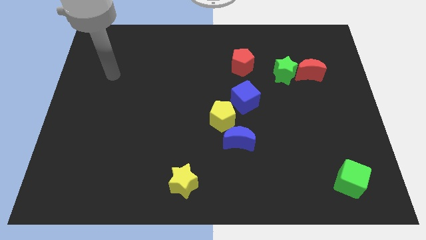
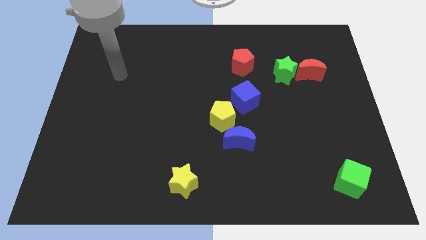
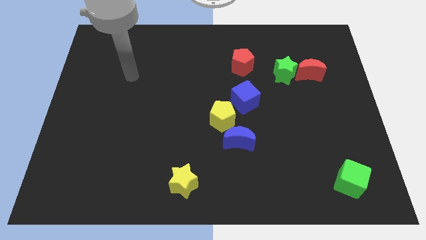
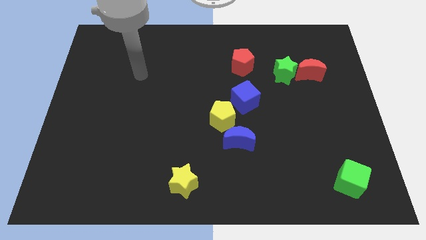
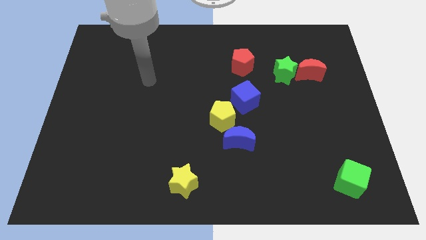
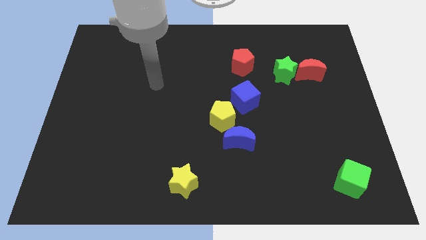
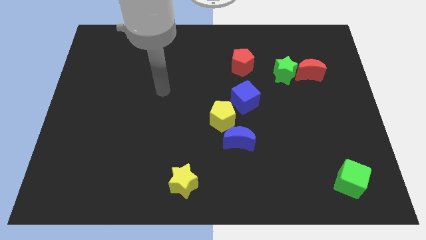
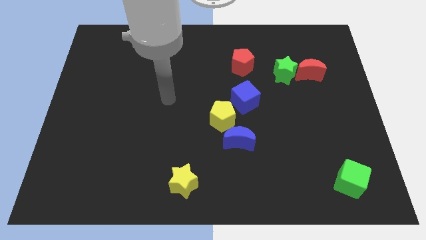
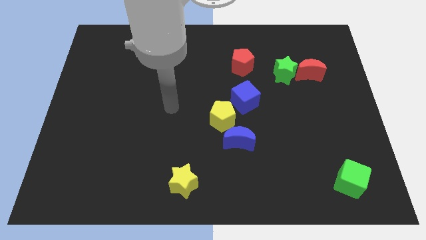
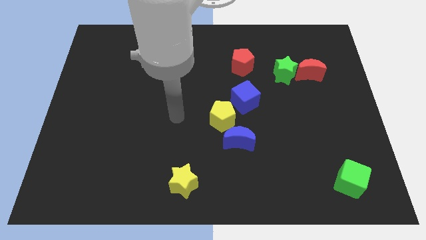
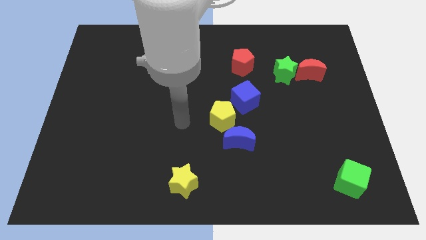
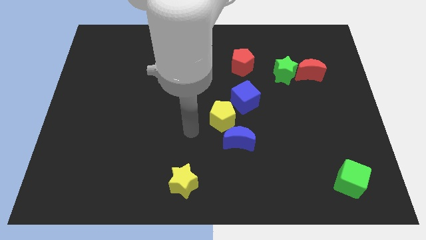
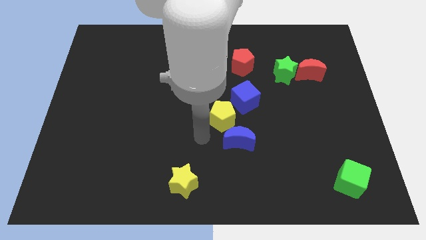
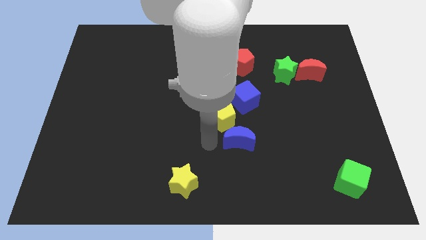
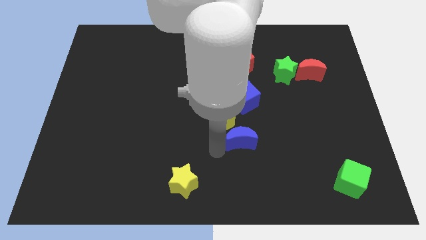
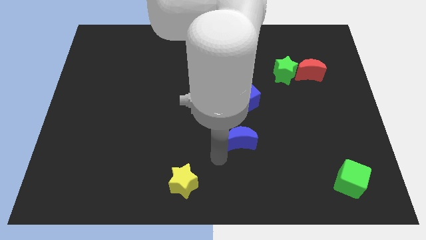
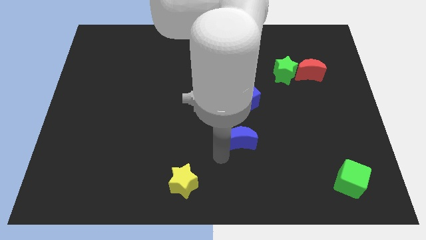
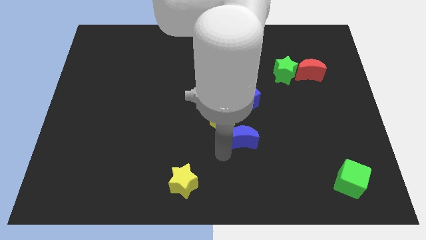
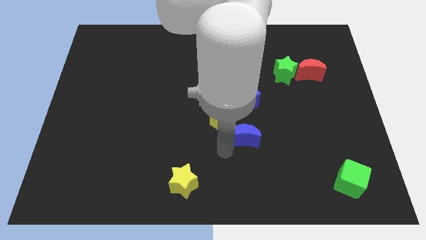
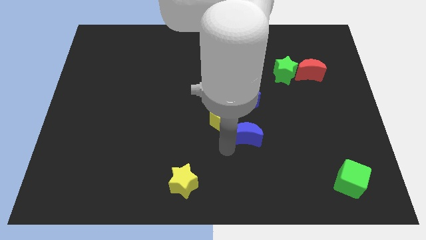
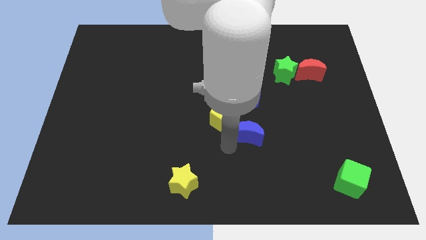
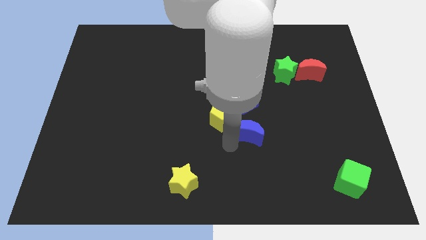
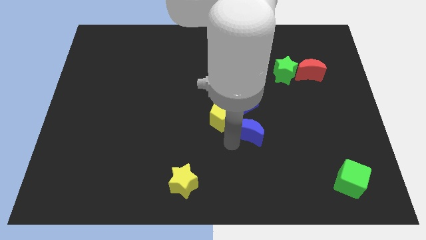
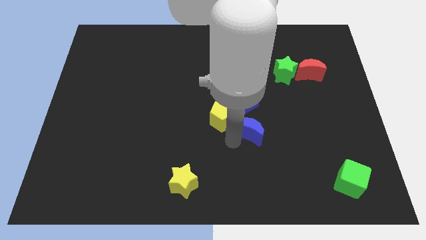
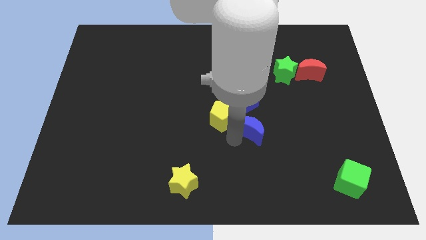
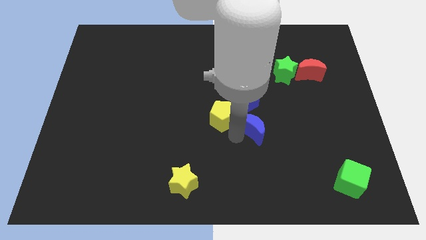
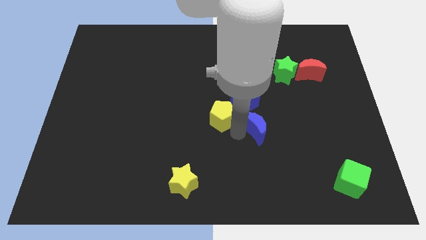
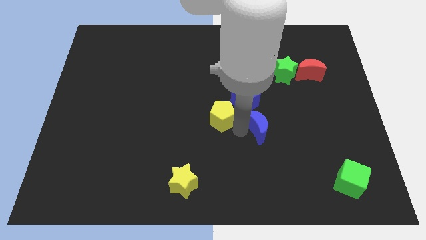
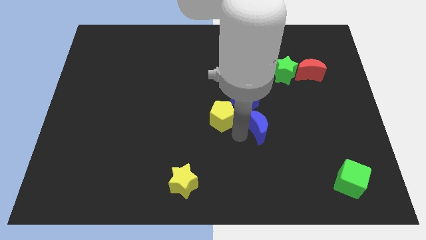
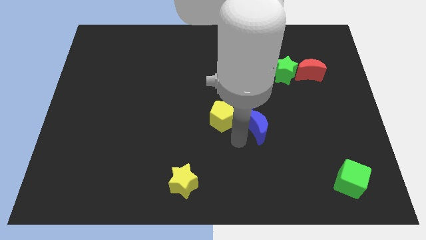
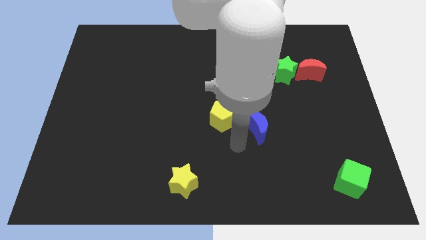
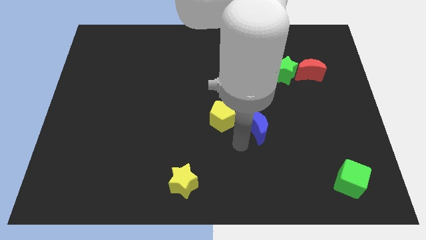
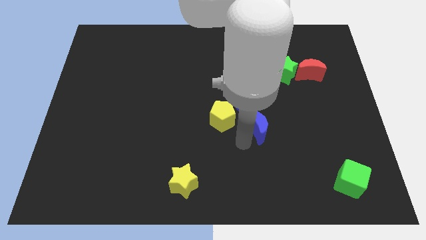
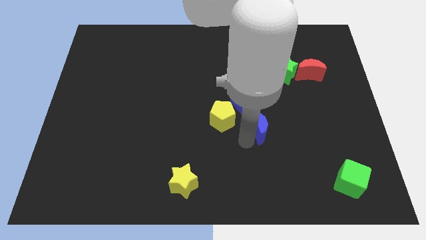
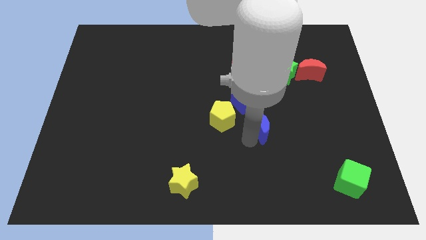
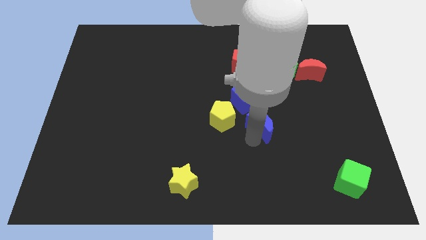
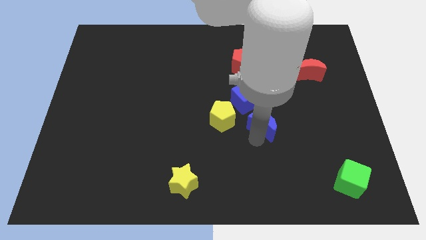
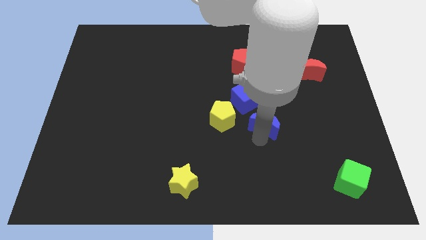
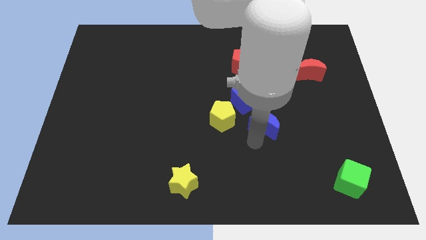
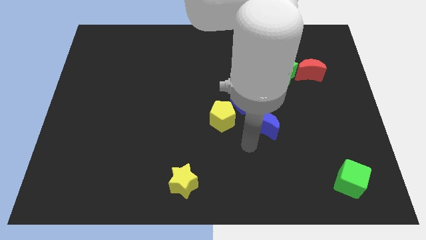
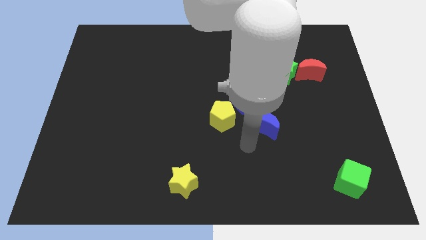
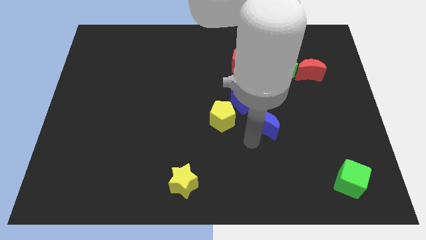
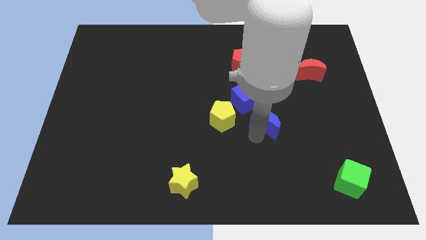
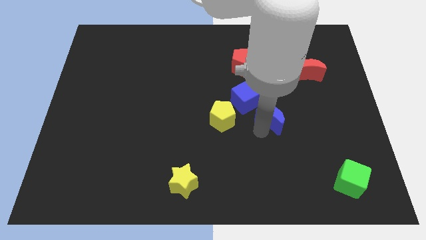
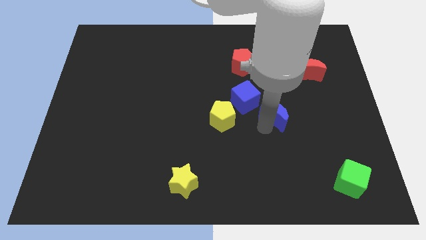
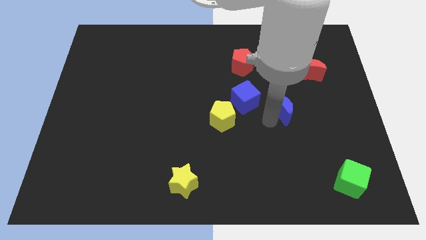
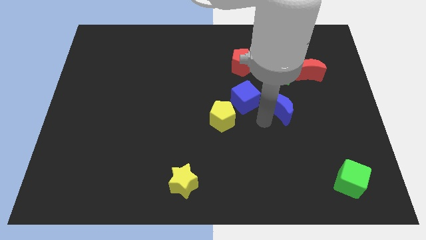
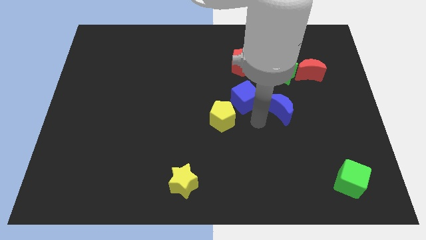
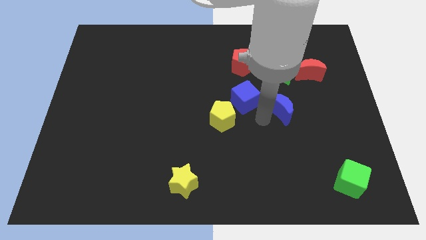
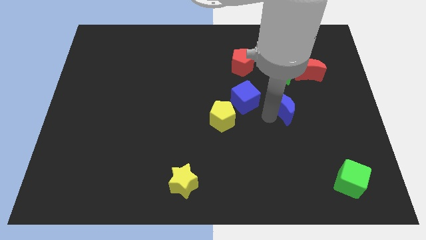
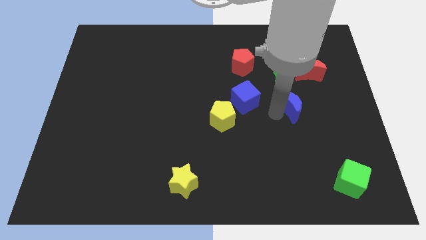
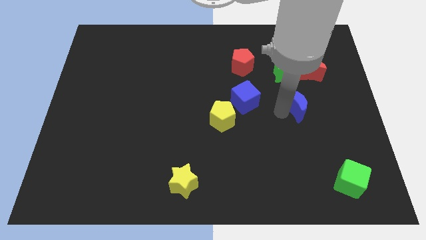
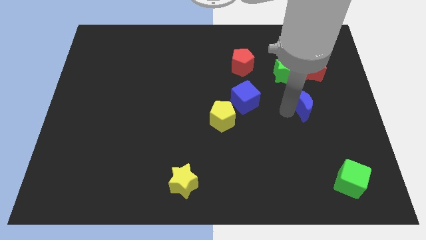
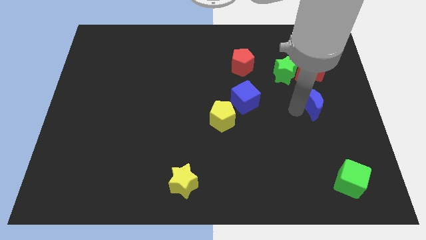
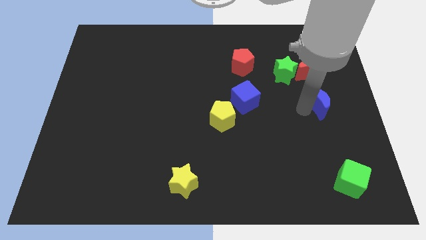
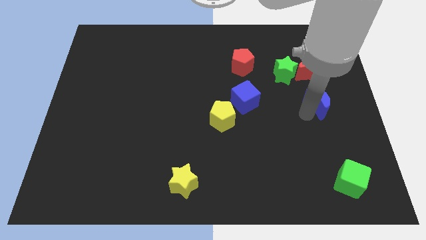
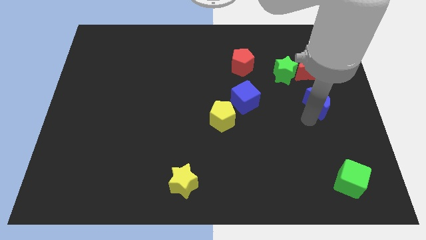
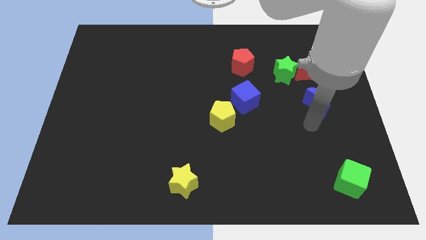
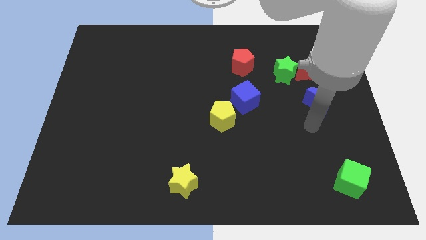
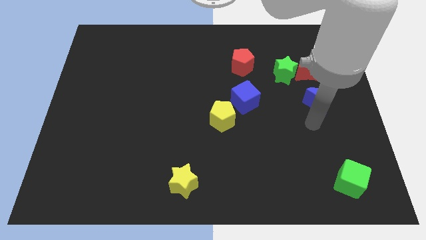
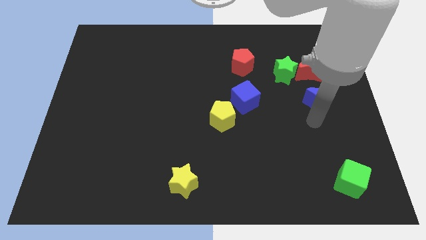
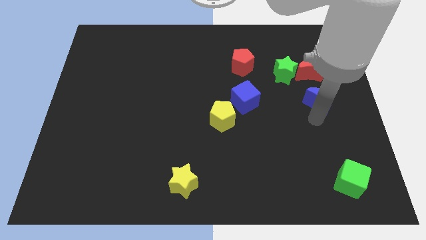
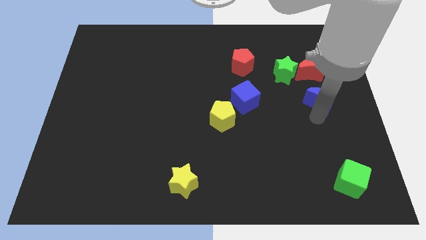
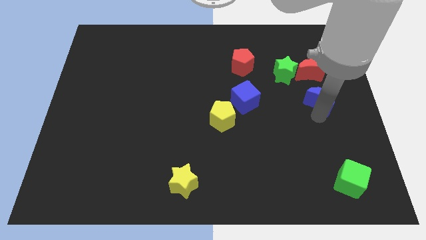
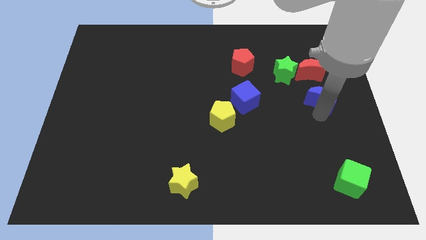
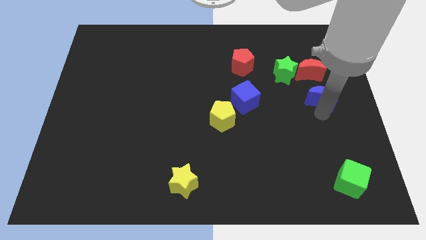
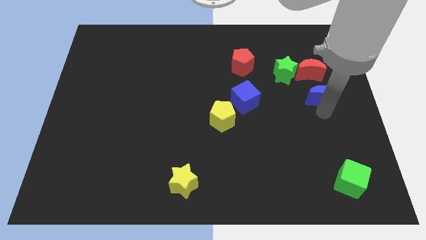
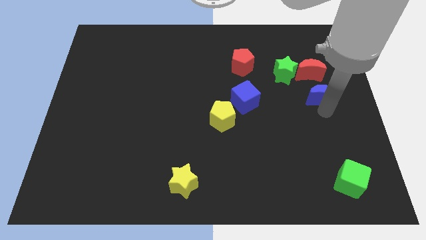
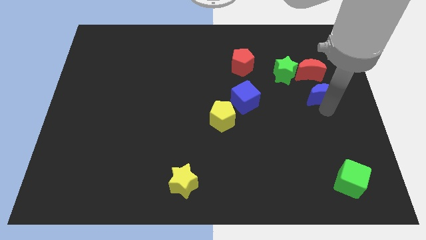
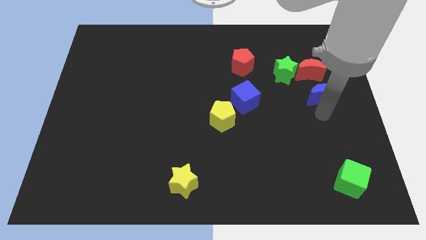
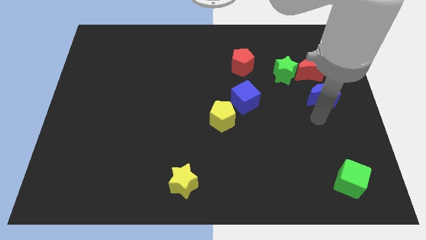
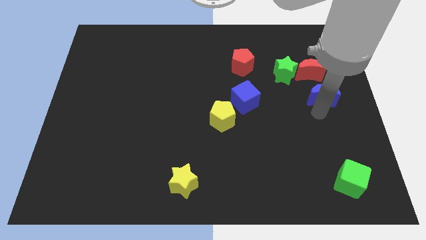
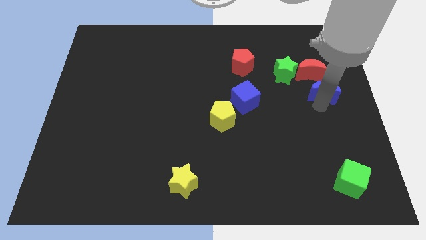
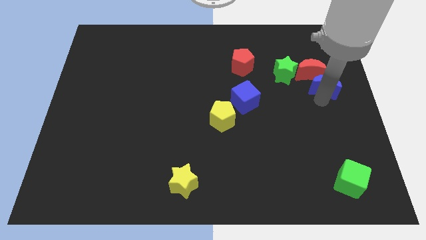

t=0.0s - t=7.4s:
slide the blue moon right of the green star
